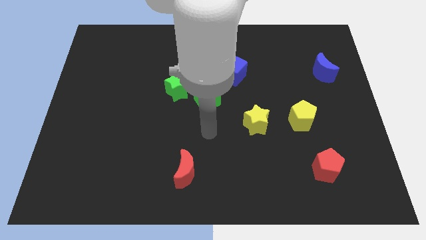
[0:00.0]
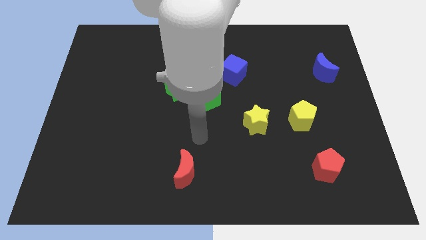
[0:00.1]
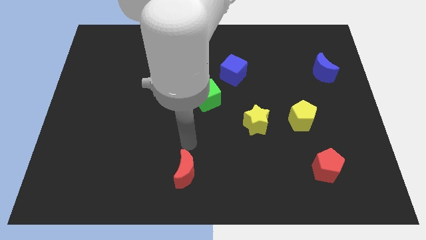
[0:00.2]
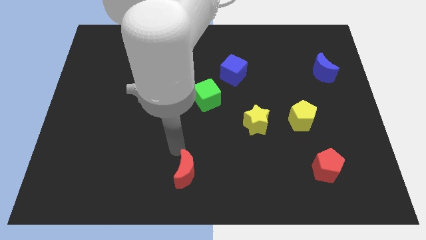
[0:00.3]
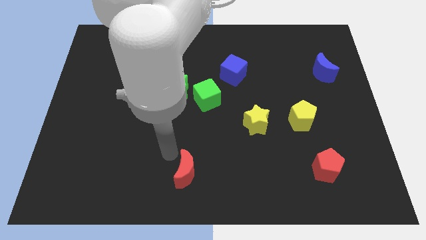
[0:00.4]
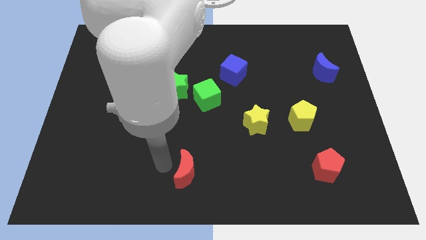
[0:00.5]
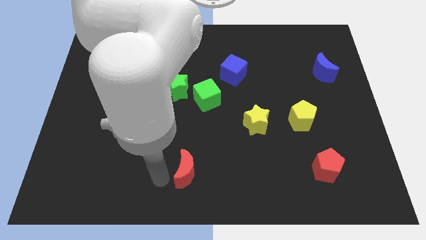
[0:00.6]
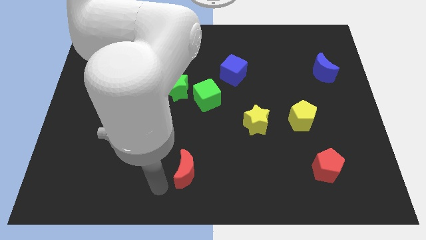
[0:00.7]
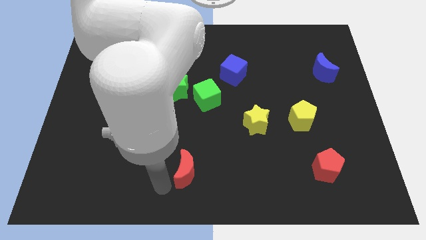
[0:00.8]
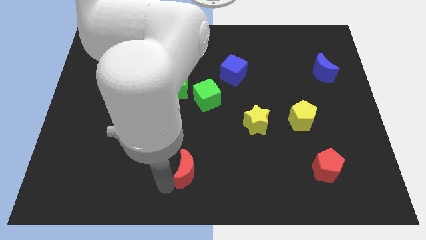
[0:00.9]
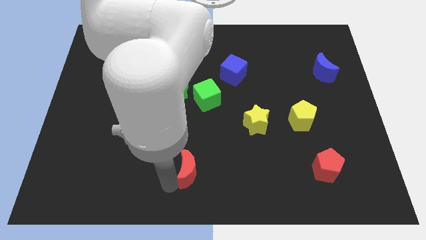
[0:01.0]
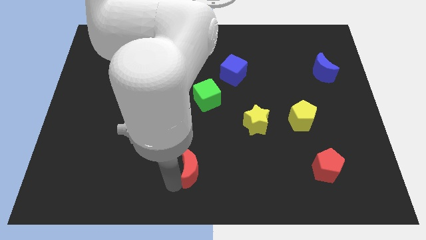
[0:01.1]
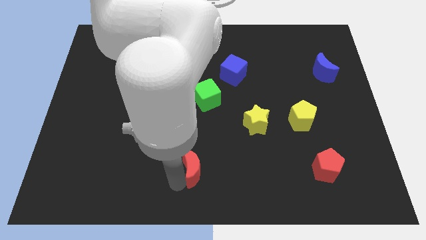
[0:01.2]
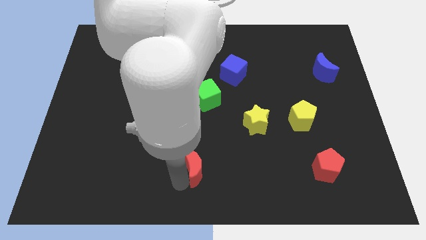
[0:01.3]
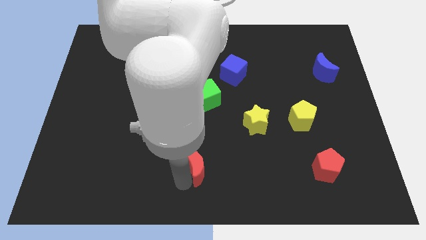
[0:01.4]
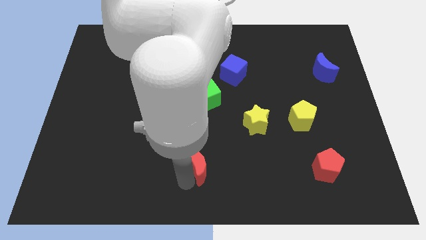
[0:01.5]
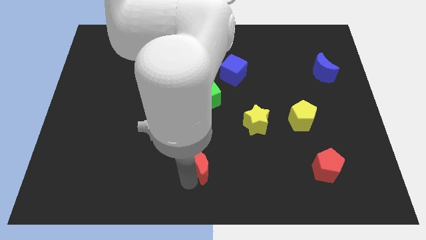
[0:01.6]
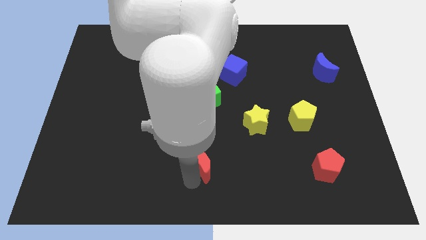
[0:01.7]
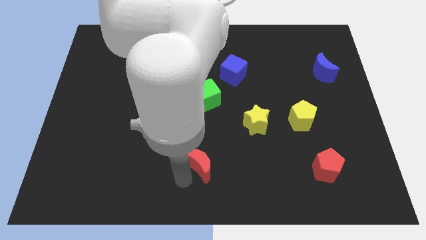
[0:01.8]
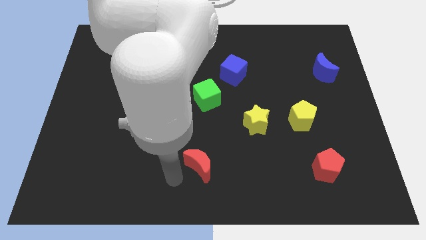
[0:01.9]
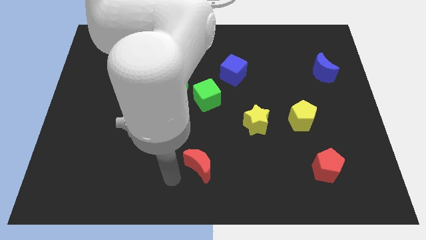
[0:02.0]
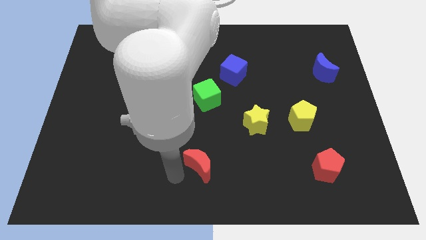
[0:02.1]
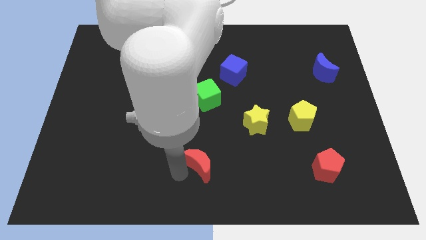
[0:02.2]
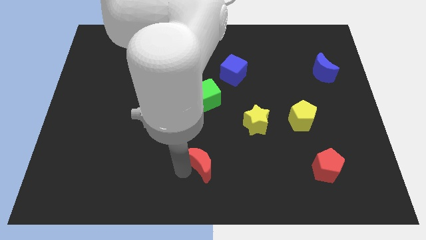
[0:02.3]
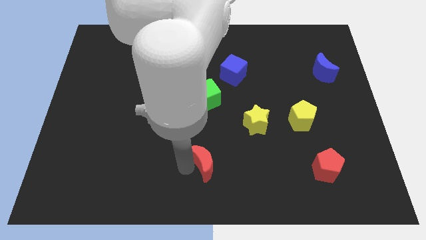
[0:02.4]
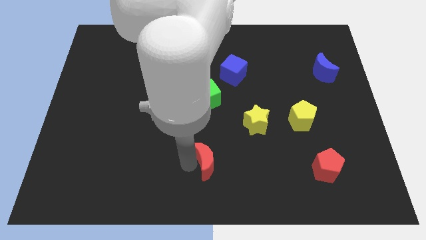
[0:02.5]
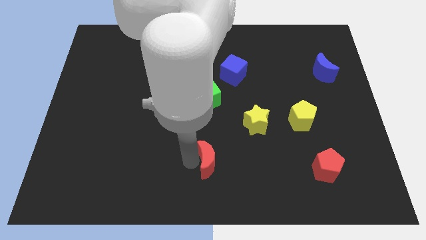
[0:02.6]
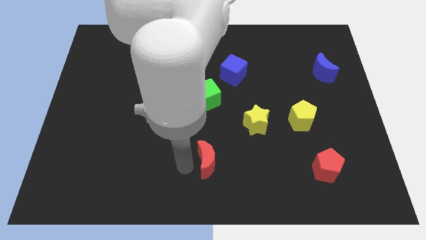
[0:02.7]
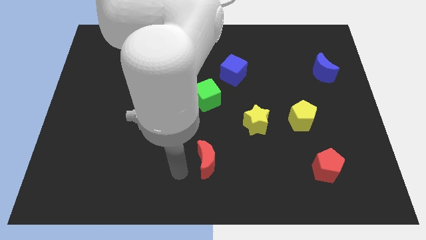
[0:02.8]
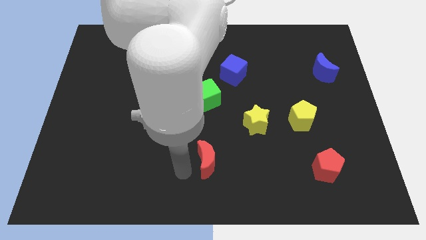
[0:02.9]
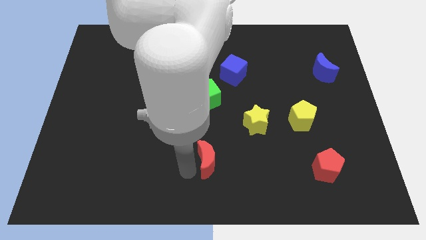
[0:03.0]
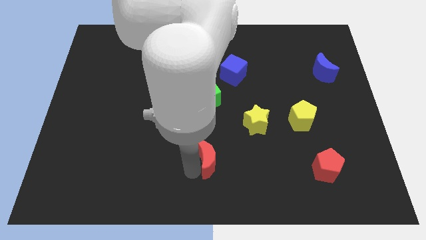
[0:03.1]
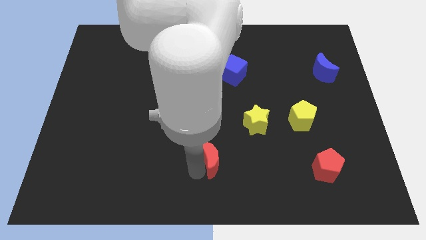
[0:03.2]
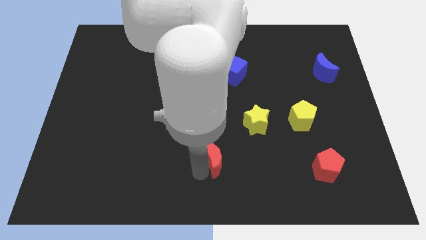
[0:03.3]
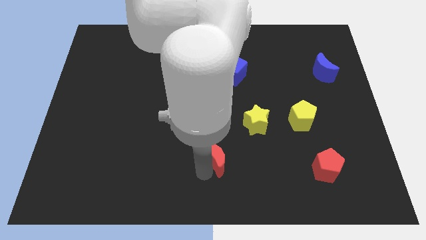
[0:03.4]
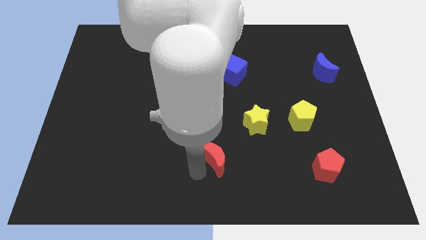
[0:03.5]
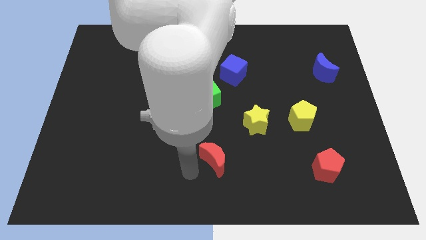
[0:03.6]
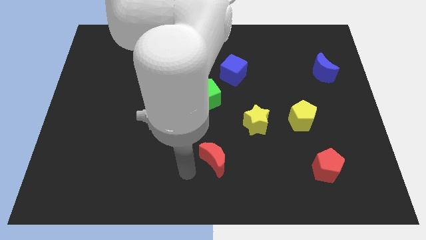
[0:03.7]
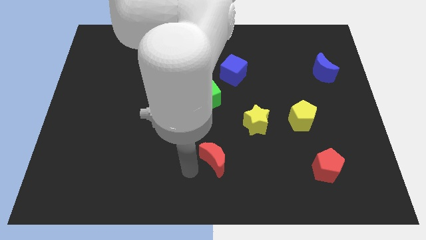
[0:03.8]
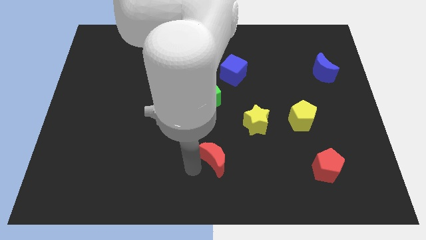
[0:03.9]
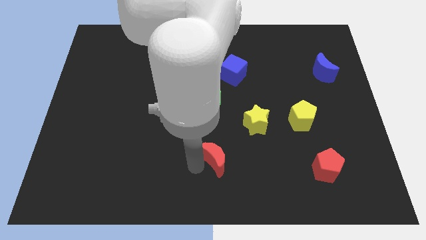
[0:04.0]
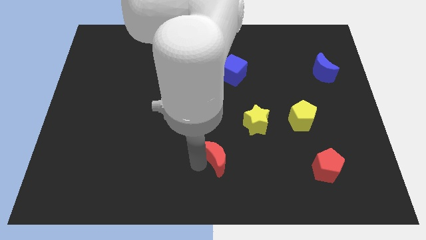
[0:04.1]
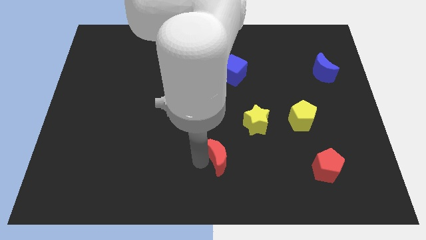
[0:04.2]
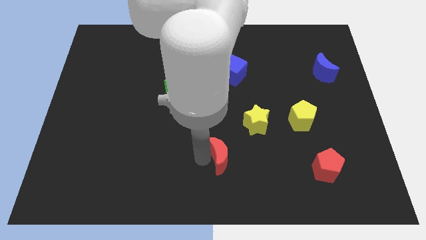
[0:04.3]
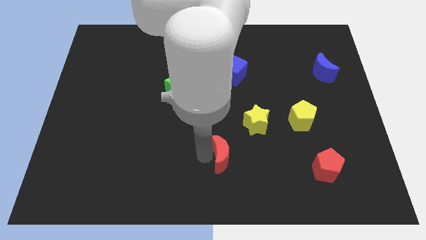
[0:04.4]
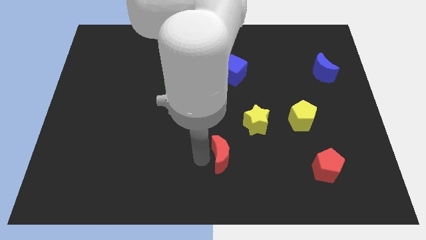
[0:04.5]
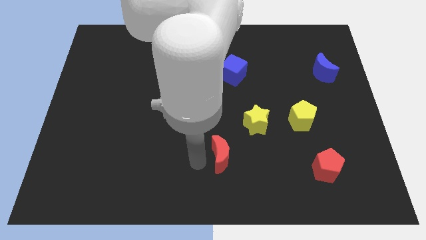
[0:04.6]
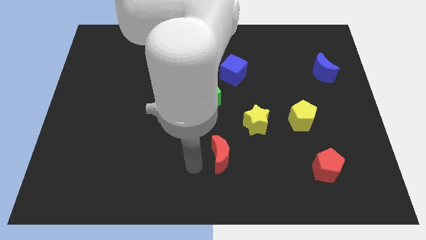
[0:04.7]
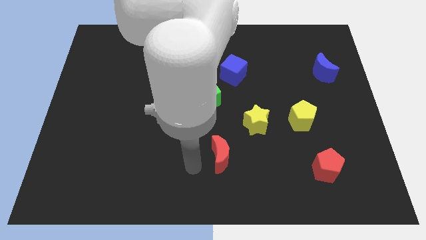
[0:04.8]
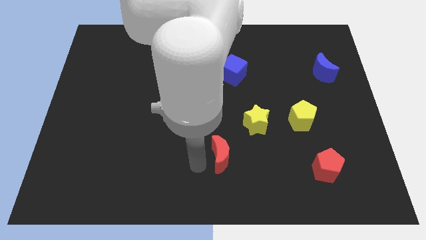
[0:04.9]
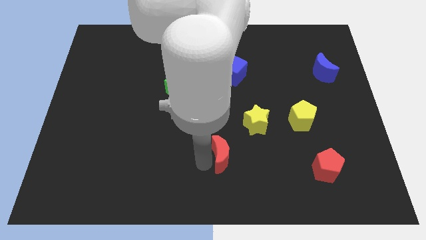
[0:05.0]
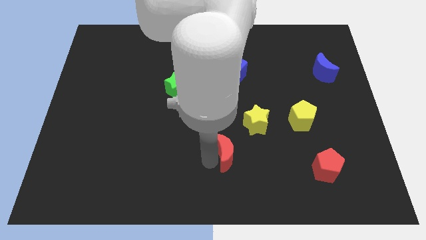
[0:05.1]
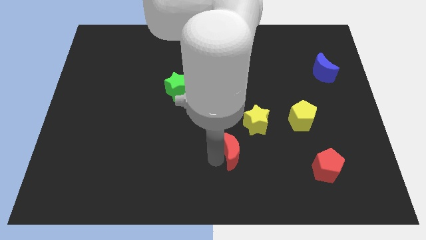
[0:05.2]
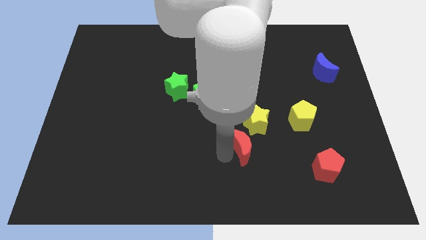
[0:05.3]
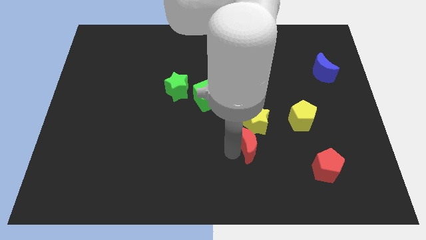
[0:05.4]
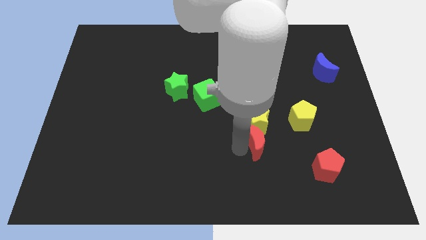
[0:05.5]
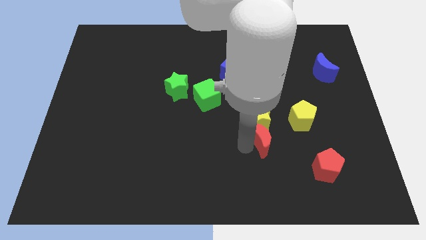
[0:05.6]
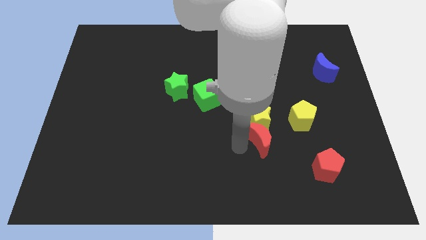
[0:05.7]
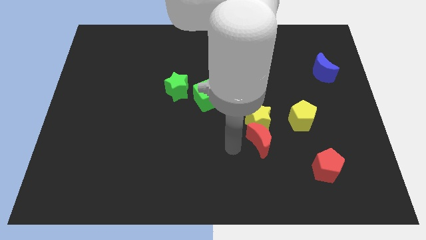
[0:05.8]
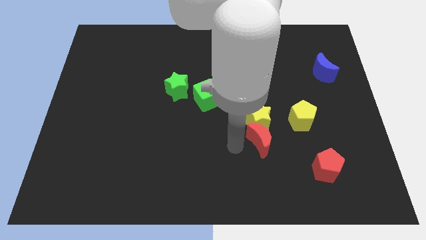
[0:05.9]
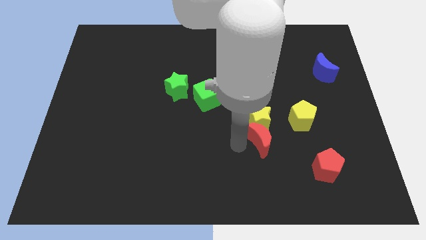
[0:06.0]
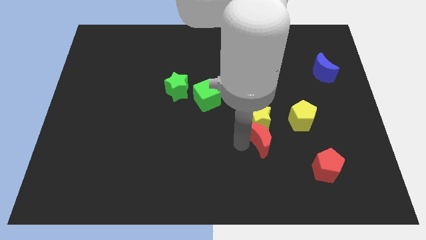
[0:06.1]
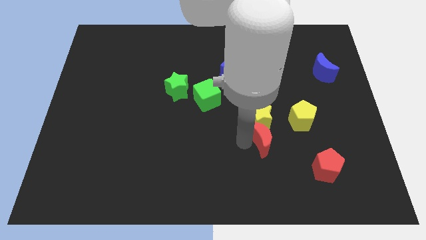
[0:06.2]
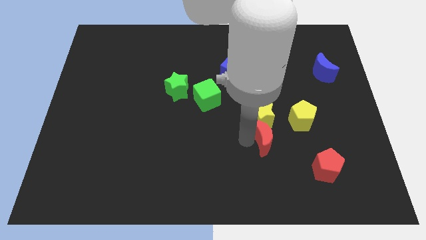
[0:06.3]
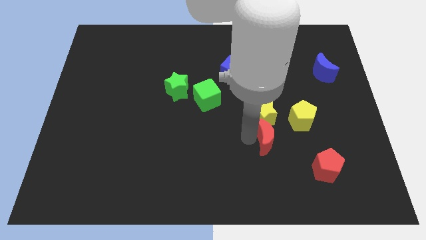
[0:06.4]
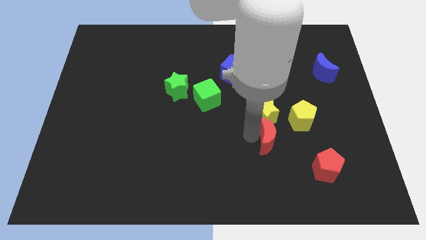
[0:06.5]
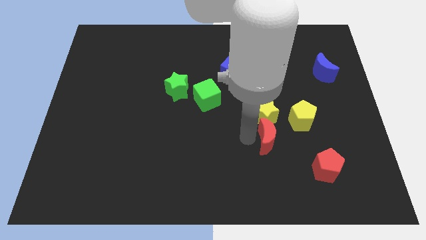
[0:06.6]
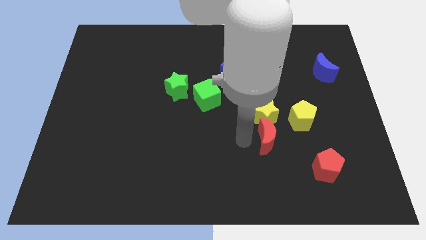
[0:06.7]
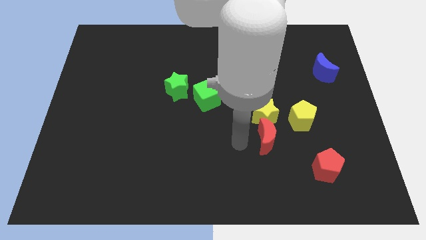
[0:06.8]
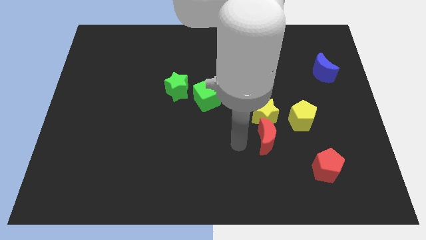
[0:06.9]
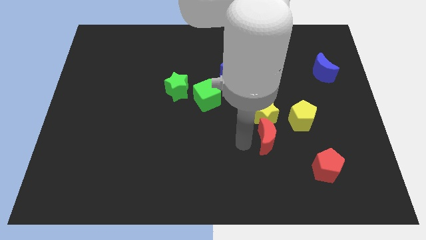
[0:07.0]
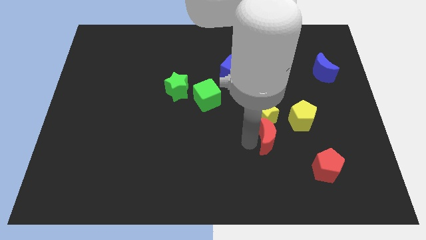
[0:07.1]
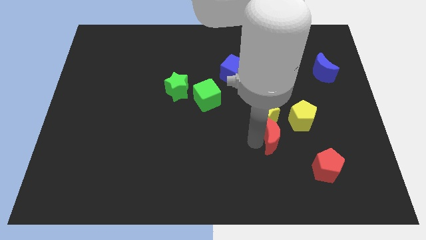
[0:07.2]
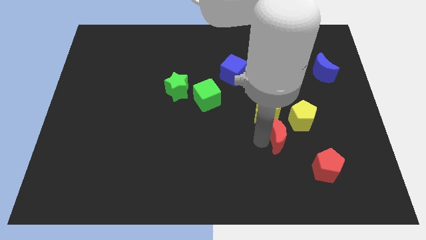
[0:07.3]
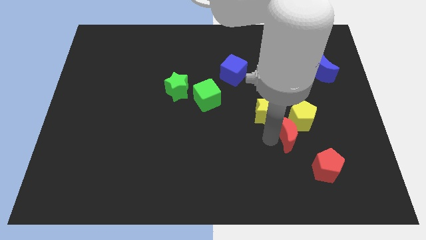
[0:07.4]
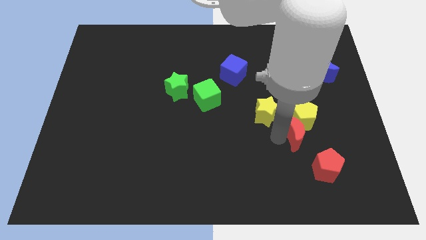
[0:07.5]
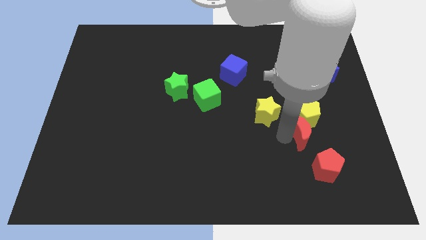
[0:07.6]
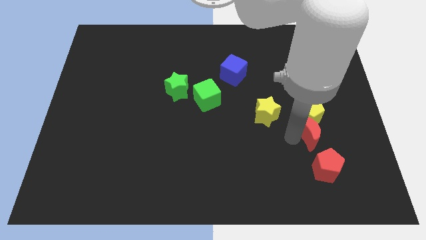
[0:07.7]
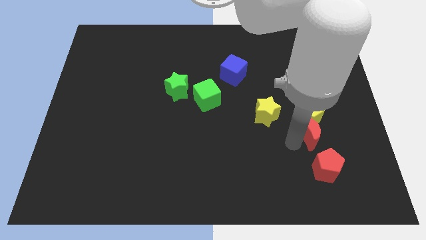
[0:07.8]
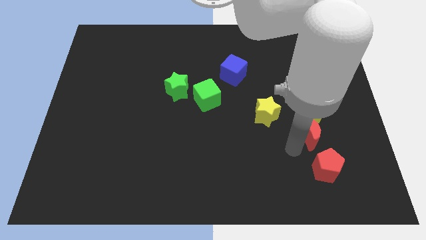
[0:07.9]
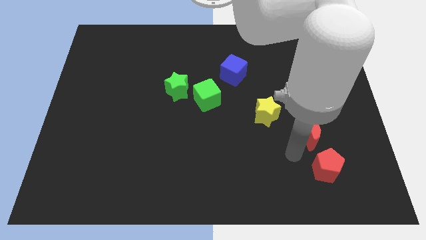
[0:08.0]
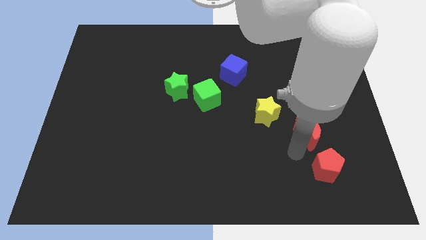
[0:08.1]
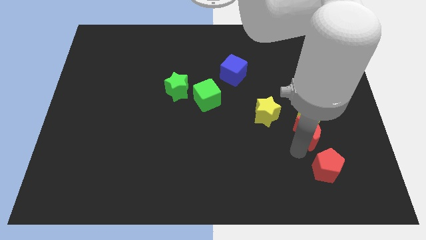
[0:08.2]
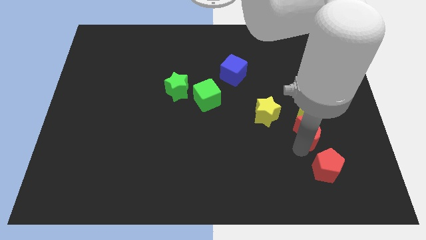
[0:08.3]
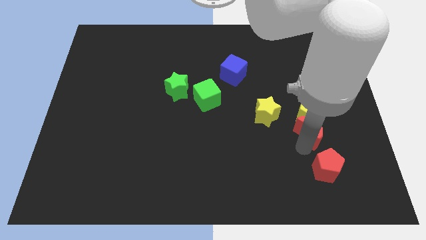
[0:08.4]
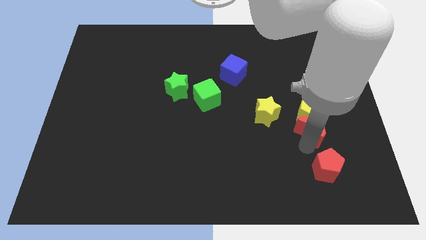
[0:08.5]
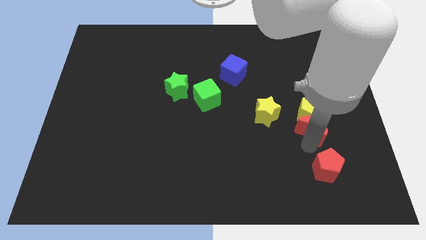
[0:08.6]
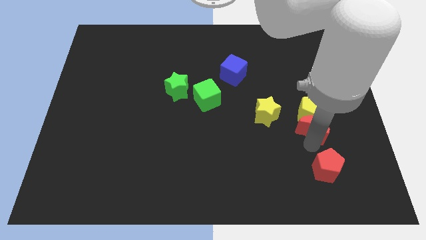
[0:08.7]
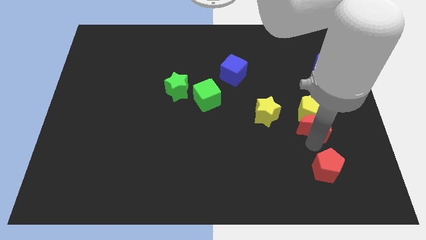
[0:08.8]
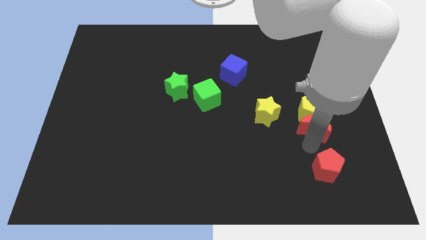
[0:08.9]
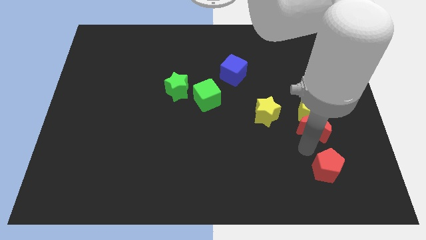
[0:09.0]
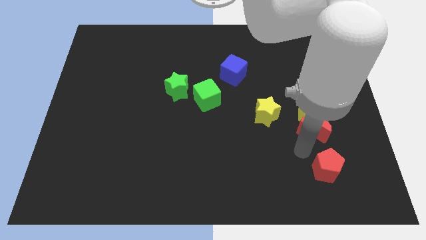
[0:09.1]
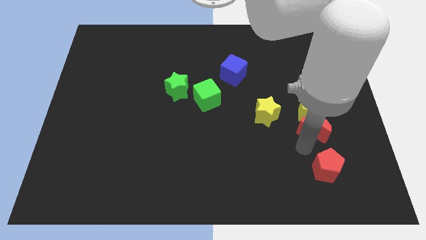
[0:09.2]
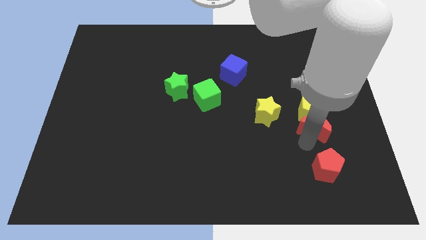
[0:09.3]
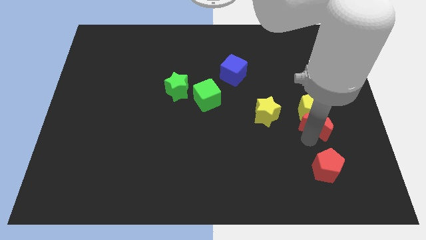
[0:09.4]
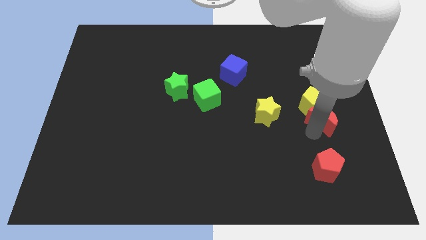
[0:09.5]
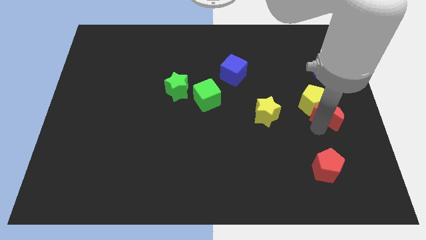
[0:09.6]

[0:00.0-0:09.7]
move the red moon to the bottom of the blue moon
